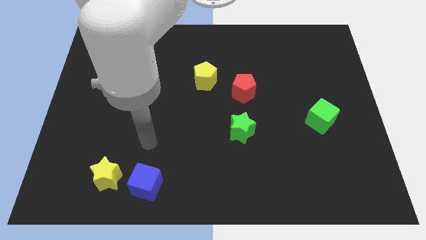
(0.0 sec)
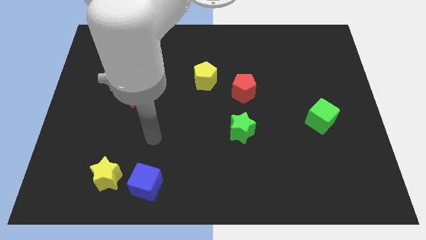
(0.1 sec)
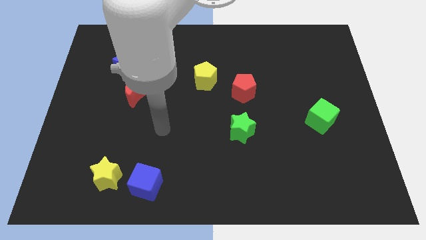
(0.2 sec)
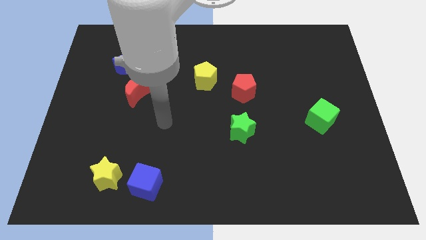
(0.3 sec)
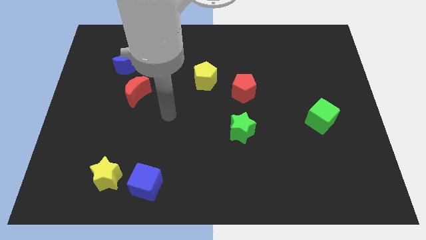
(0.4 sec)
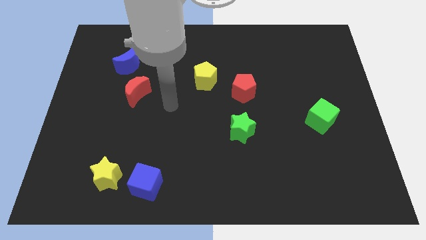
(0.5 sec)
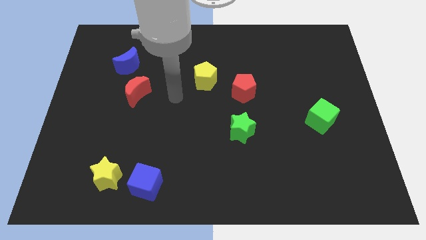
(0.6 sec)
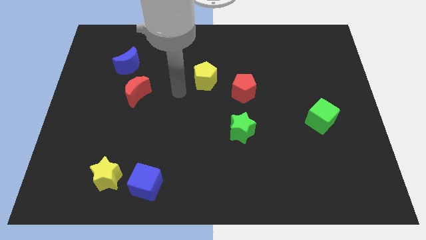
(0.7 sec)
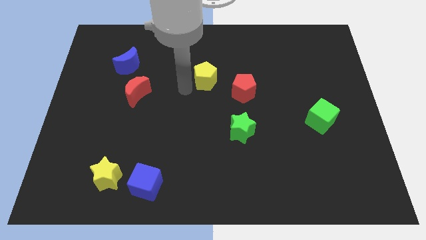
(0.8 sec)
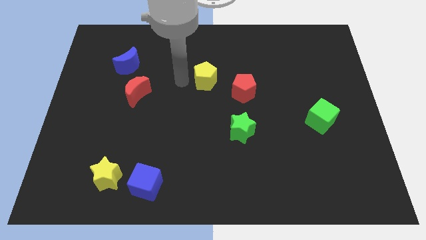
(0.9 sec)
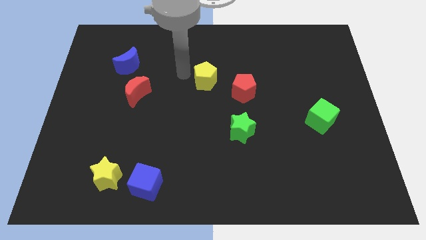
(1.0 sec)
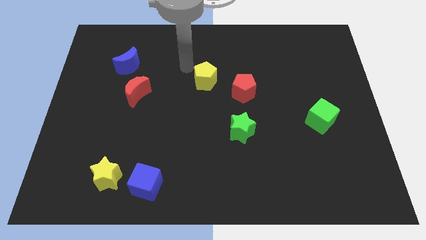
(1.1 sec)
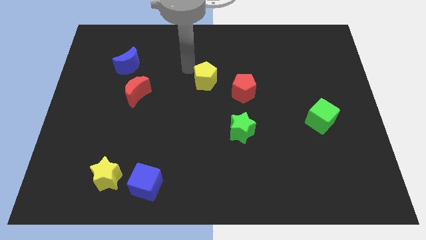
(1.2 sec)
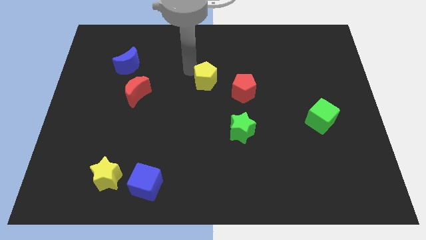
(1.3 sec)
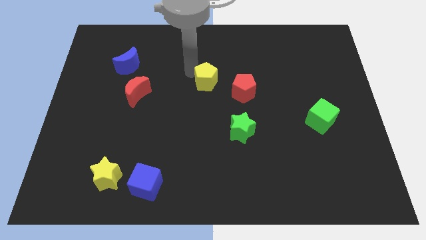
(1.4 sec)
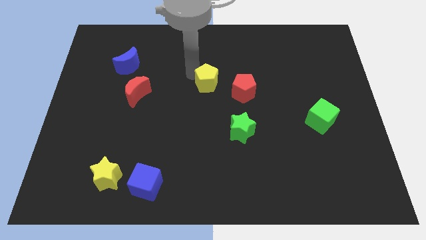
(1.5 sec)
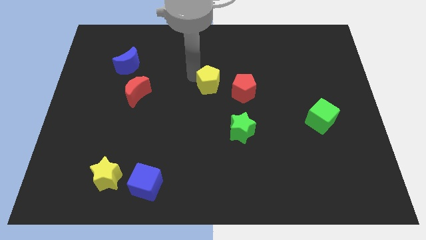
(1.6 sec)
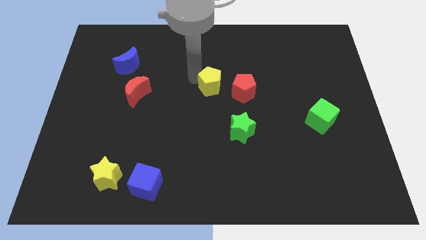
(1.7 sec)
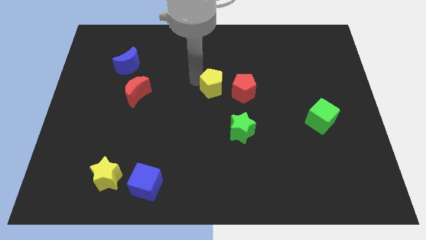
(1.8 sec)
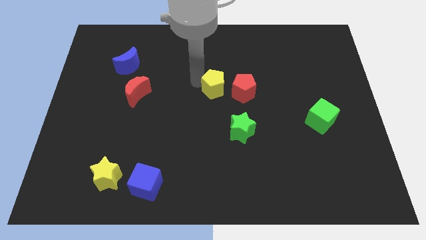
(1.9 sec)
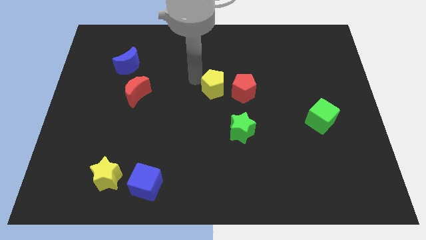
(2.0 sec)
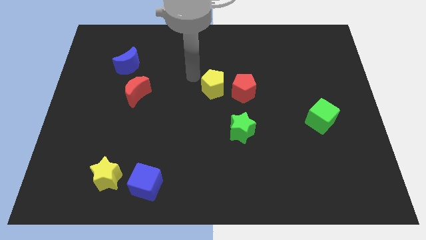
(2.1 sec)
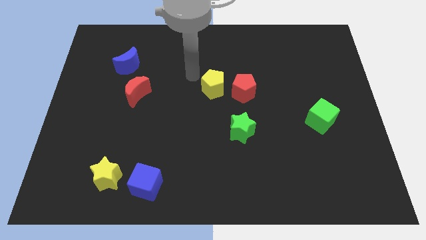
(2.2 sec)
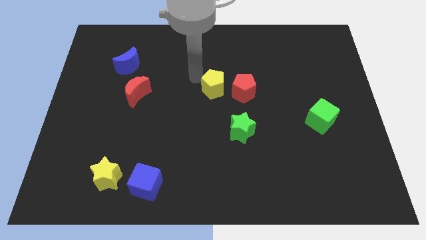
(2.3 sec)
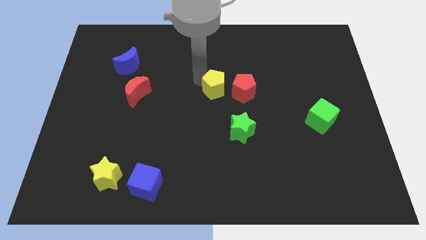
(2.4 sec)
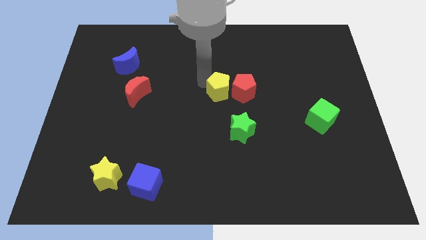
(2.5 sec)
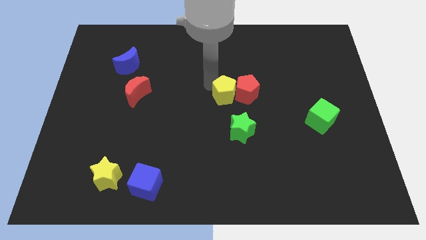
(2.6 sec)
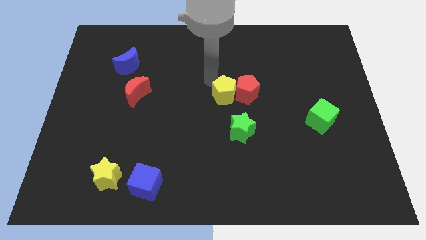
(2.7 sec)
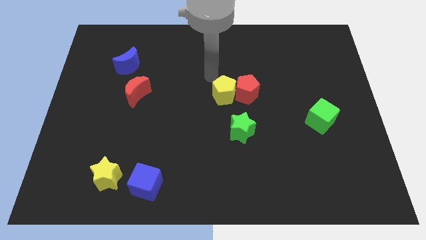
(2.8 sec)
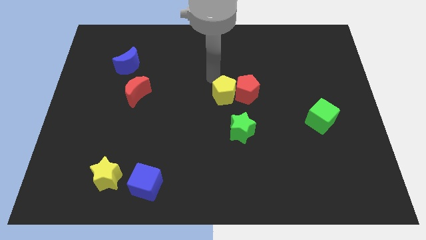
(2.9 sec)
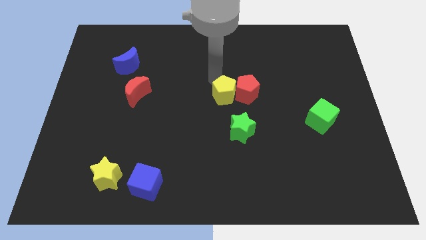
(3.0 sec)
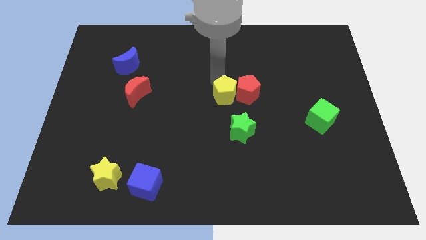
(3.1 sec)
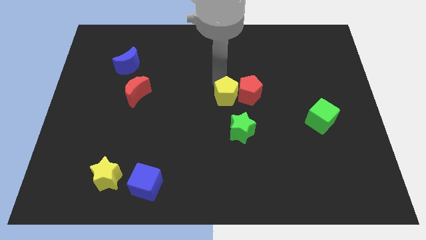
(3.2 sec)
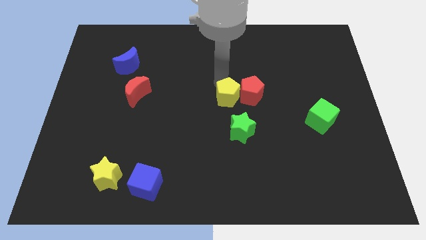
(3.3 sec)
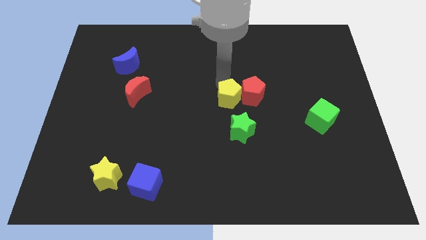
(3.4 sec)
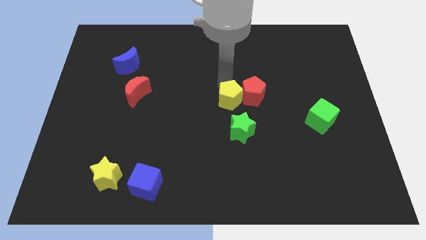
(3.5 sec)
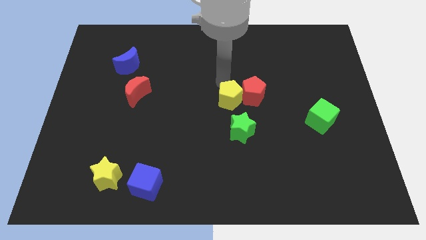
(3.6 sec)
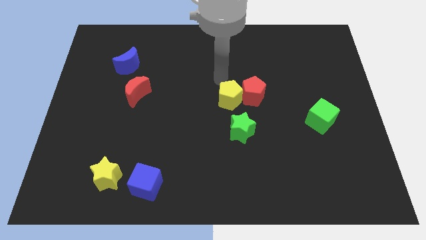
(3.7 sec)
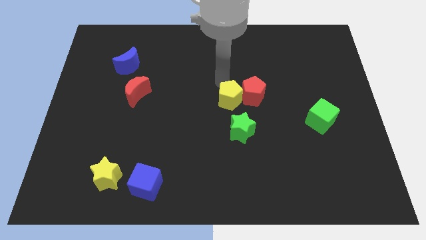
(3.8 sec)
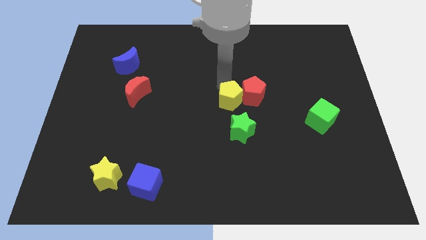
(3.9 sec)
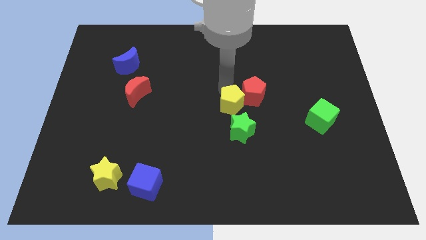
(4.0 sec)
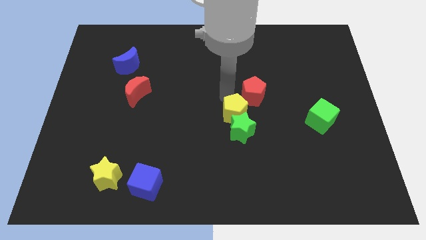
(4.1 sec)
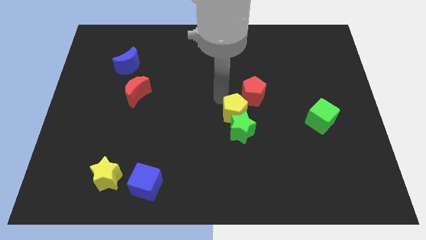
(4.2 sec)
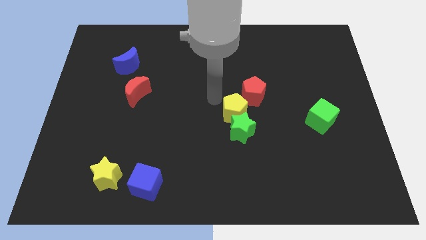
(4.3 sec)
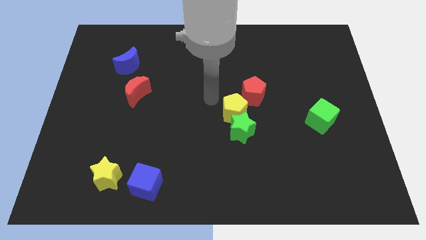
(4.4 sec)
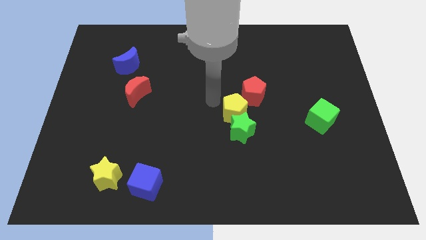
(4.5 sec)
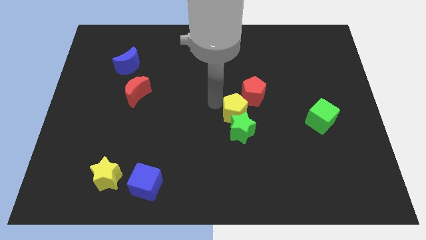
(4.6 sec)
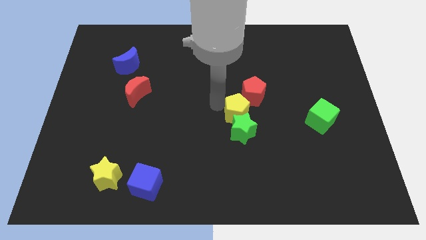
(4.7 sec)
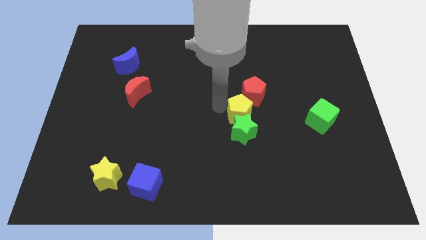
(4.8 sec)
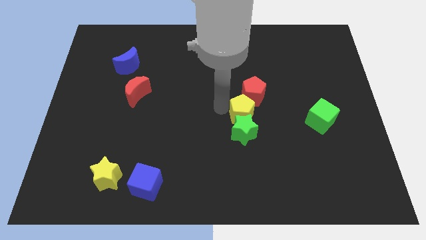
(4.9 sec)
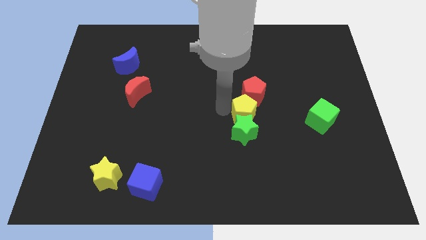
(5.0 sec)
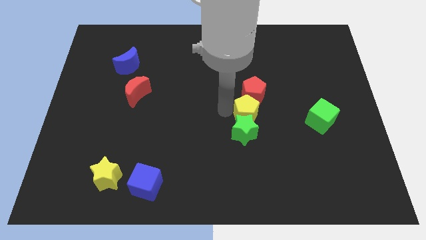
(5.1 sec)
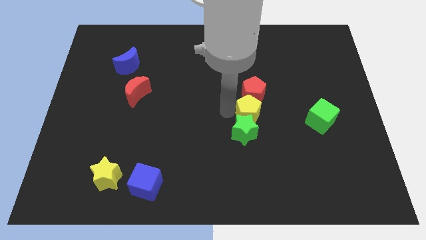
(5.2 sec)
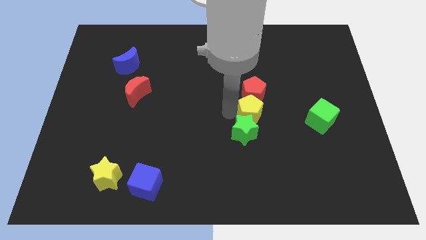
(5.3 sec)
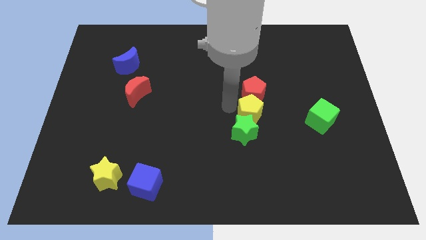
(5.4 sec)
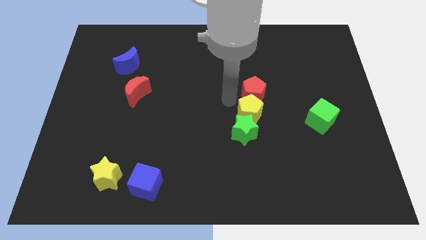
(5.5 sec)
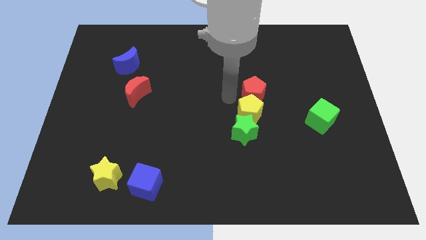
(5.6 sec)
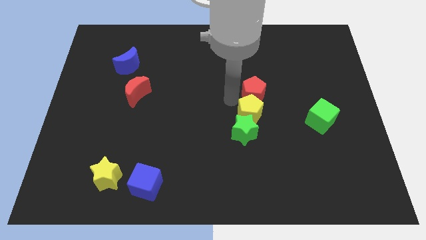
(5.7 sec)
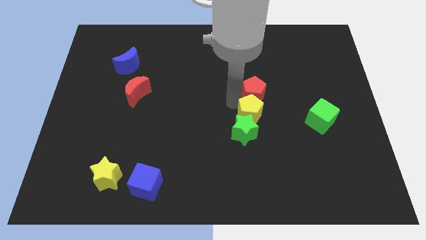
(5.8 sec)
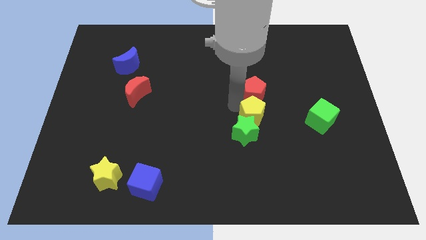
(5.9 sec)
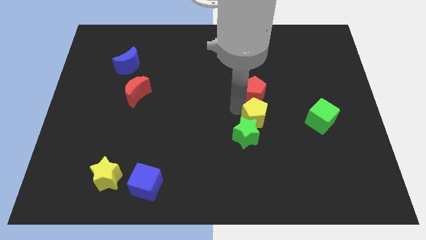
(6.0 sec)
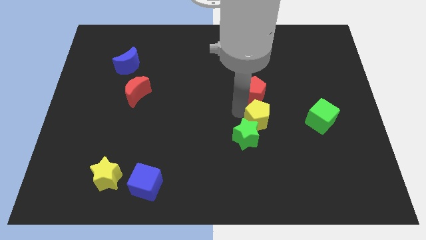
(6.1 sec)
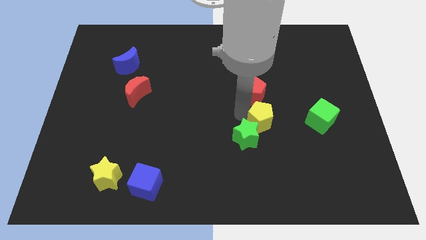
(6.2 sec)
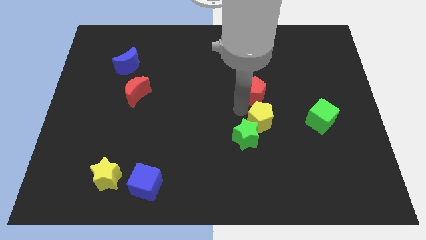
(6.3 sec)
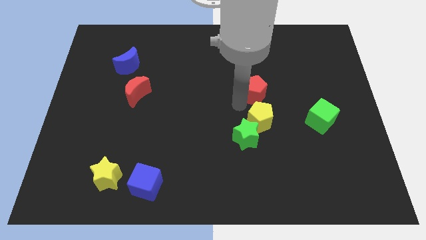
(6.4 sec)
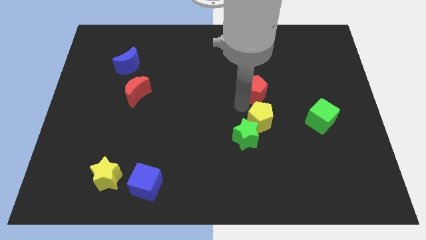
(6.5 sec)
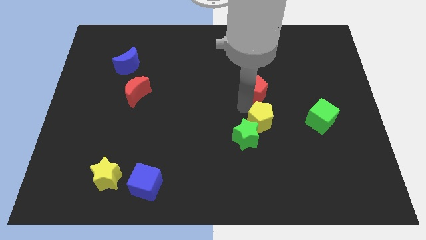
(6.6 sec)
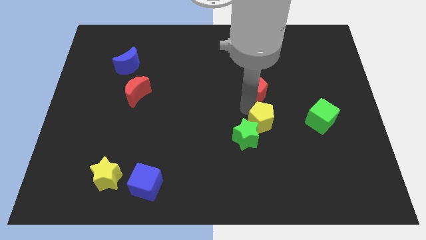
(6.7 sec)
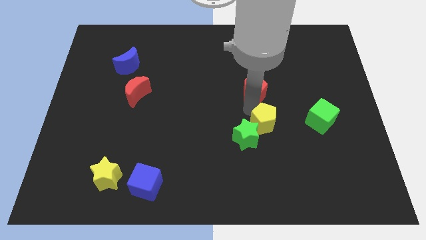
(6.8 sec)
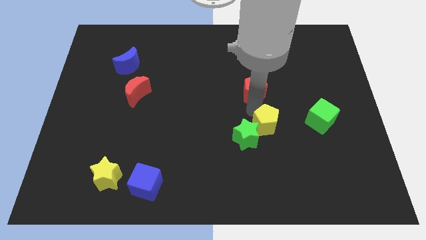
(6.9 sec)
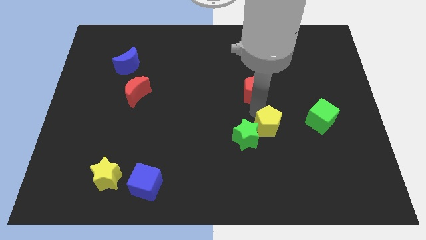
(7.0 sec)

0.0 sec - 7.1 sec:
move the yellow pentagon downwards and then right

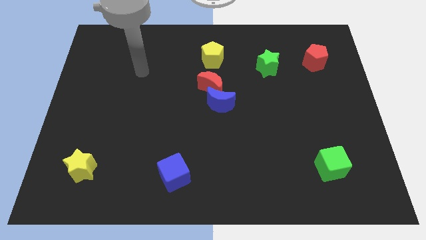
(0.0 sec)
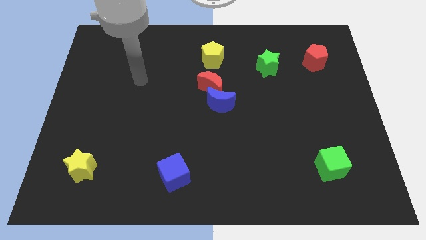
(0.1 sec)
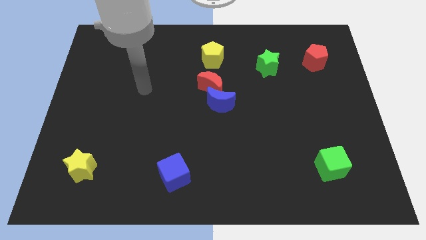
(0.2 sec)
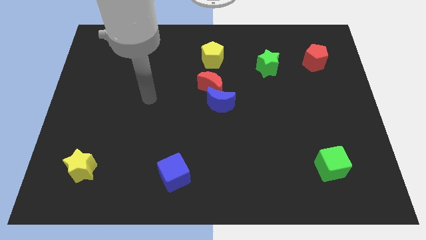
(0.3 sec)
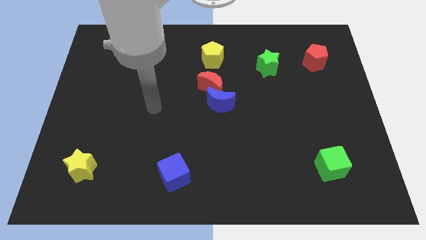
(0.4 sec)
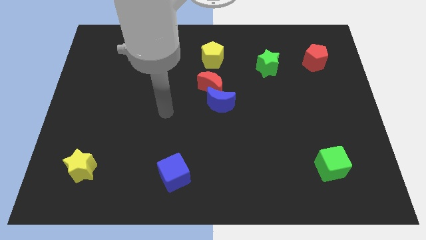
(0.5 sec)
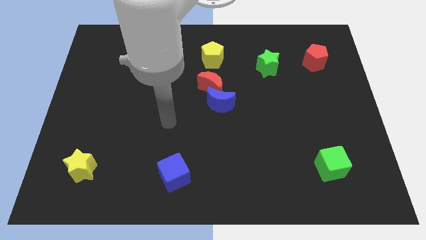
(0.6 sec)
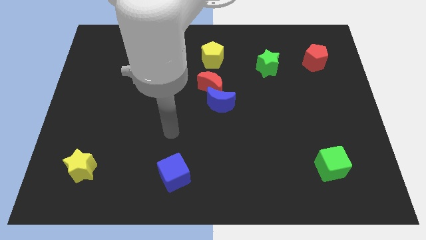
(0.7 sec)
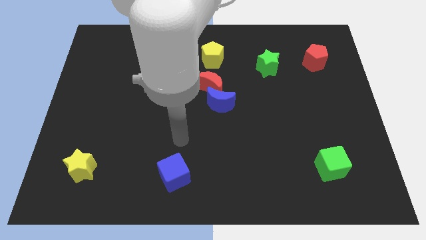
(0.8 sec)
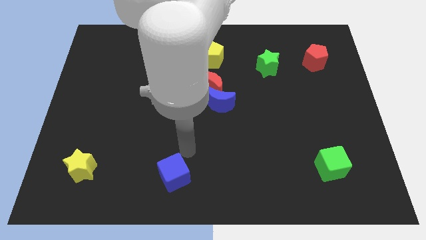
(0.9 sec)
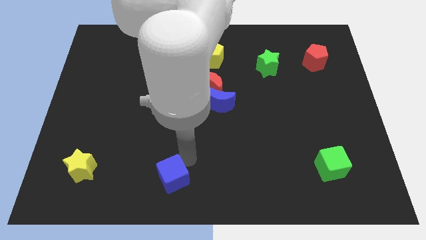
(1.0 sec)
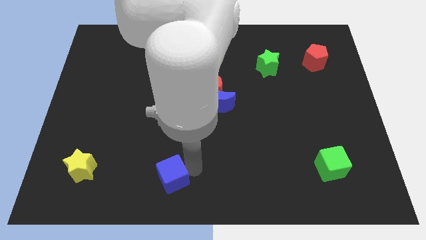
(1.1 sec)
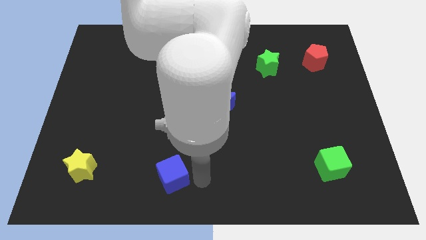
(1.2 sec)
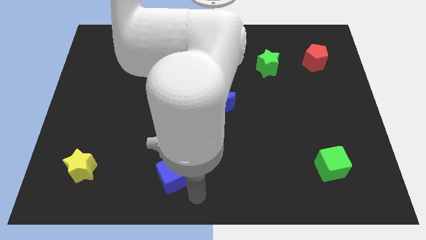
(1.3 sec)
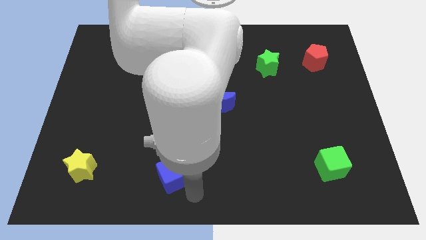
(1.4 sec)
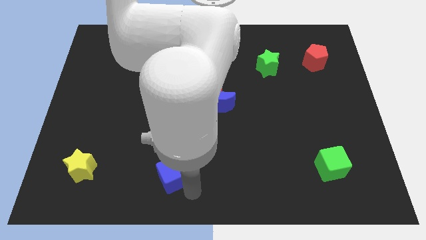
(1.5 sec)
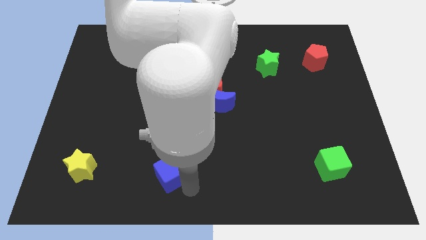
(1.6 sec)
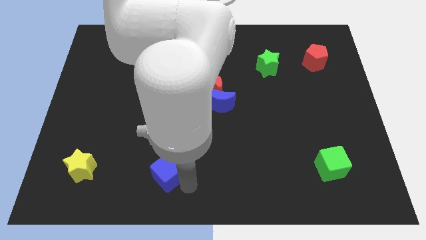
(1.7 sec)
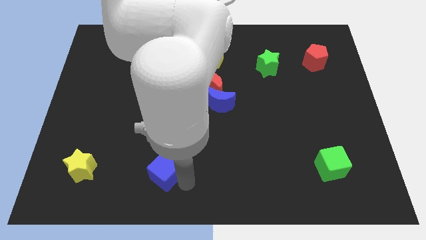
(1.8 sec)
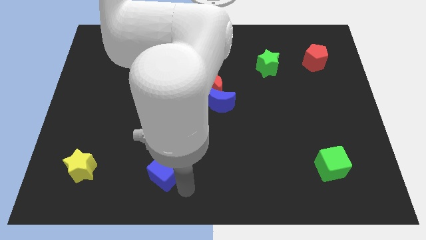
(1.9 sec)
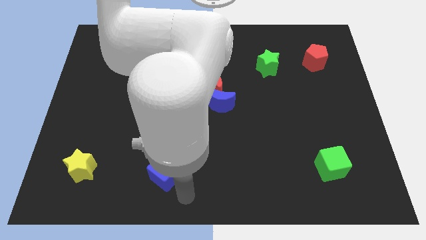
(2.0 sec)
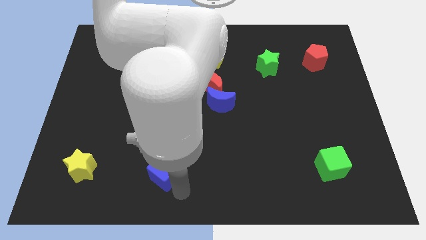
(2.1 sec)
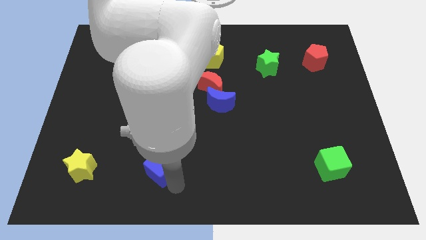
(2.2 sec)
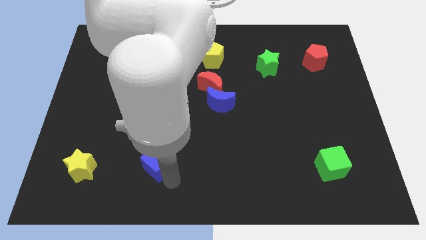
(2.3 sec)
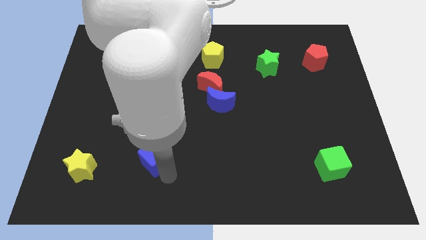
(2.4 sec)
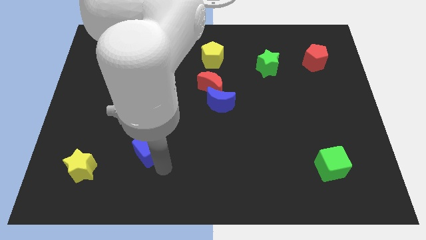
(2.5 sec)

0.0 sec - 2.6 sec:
slide the blue cube up and left a little
